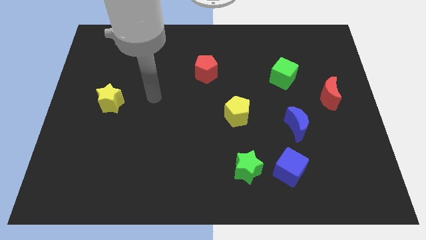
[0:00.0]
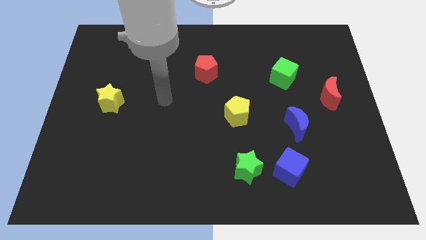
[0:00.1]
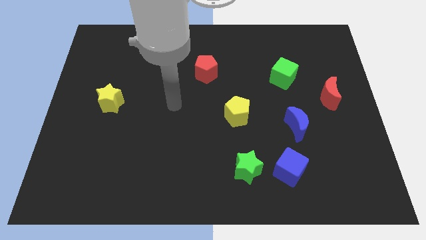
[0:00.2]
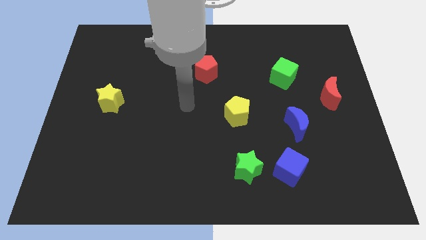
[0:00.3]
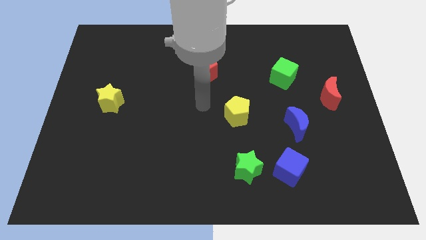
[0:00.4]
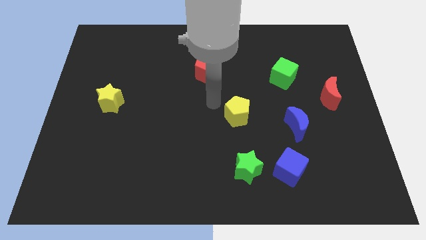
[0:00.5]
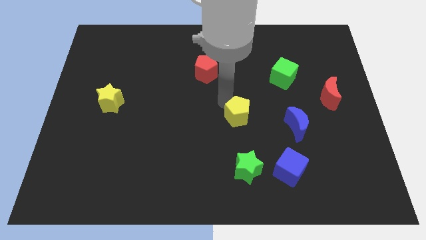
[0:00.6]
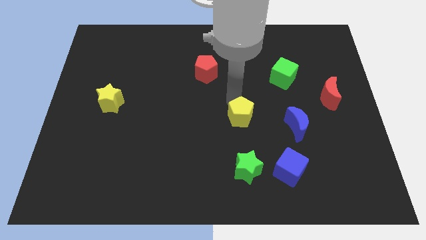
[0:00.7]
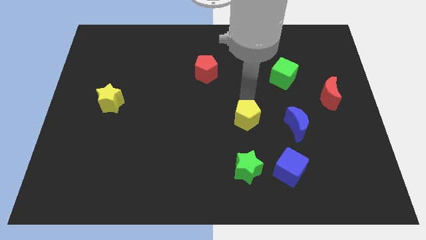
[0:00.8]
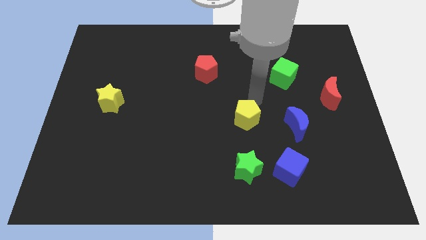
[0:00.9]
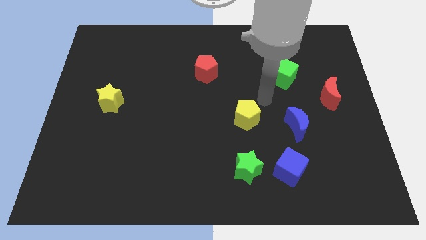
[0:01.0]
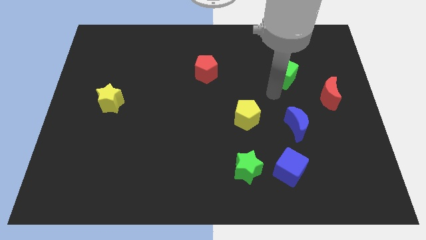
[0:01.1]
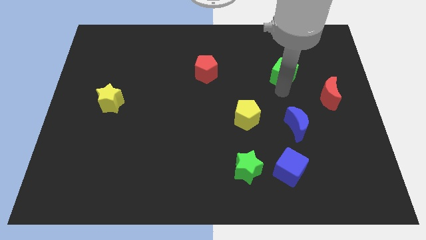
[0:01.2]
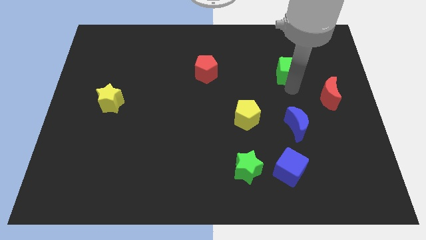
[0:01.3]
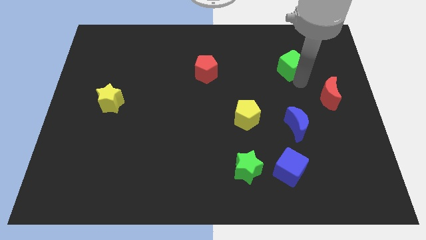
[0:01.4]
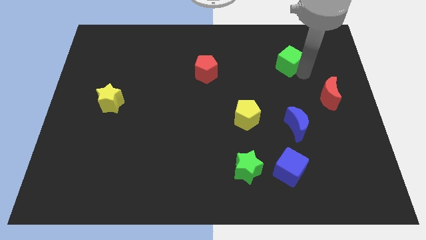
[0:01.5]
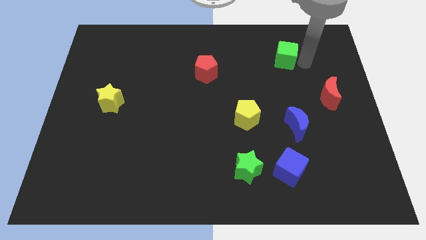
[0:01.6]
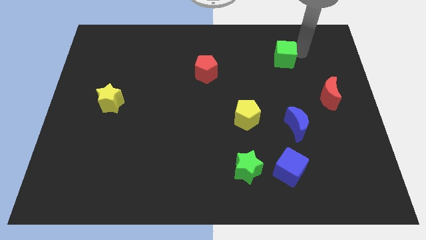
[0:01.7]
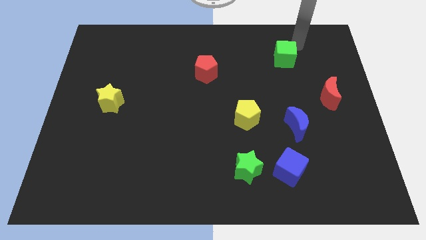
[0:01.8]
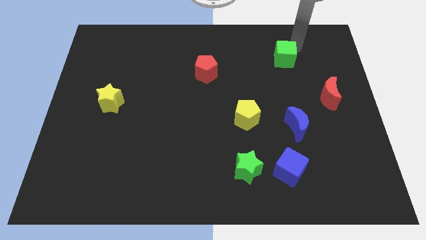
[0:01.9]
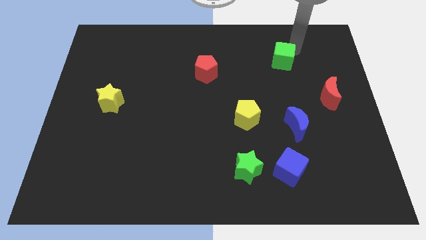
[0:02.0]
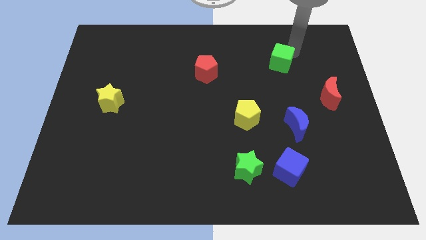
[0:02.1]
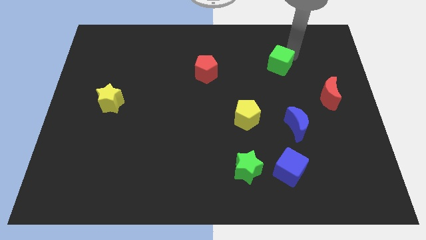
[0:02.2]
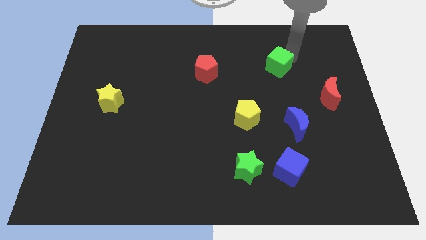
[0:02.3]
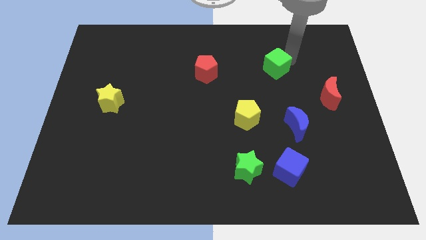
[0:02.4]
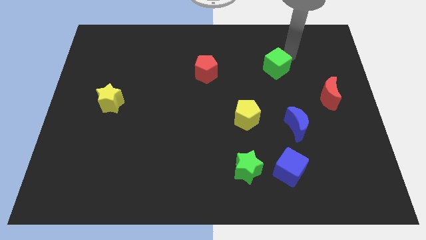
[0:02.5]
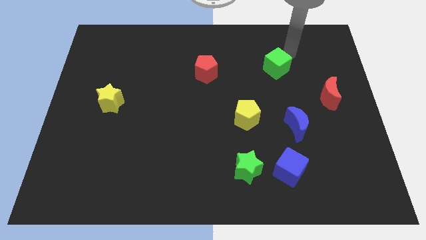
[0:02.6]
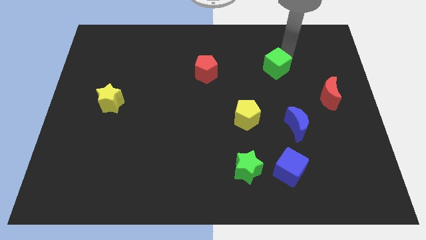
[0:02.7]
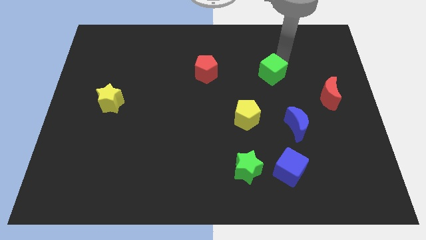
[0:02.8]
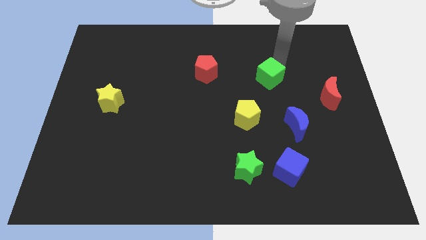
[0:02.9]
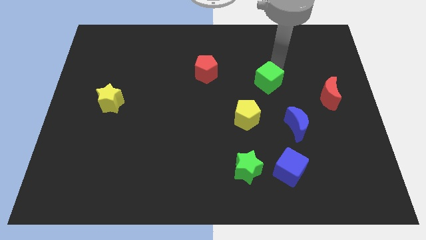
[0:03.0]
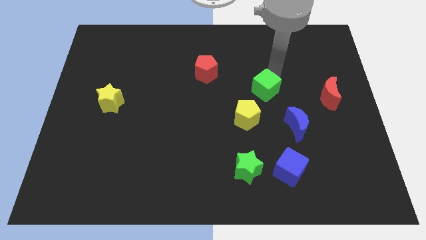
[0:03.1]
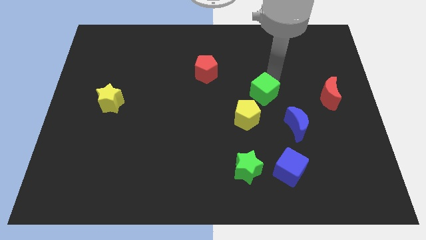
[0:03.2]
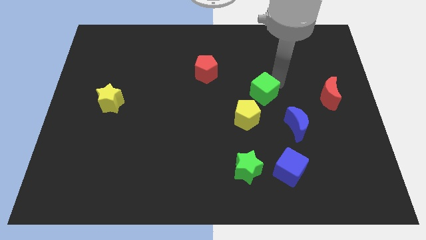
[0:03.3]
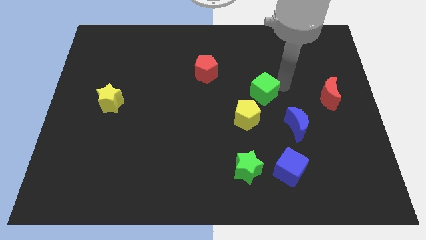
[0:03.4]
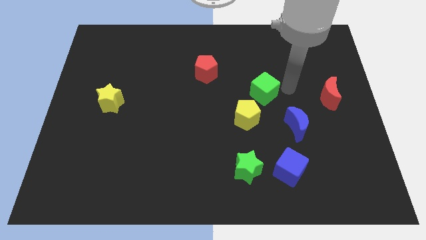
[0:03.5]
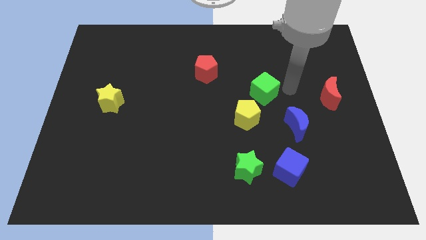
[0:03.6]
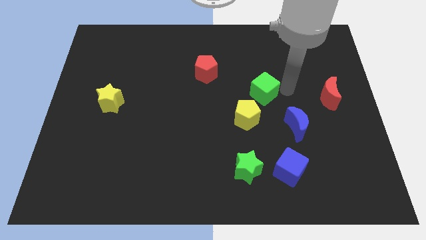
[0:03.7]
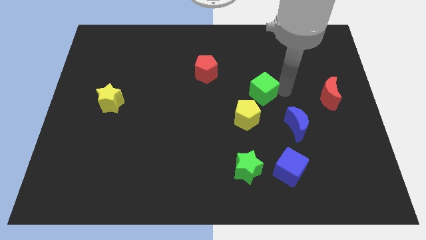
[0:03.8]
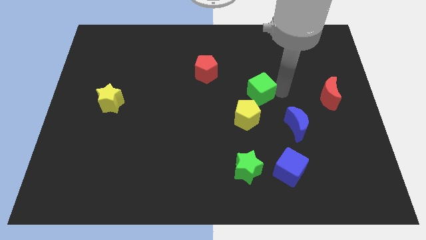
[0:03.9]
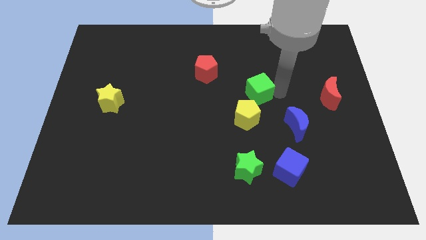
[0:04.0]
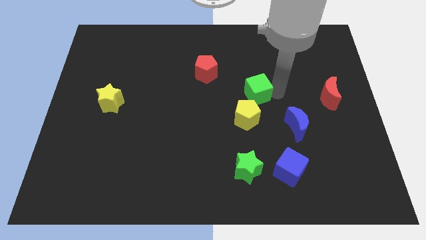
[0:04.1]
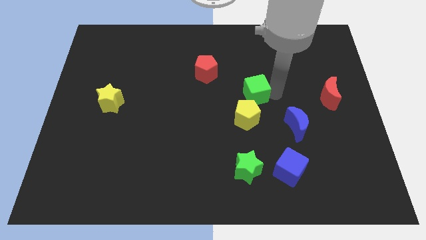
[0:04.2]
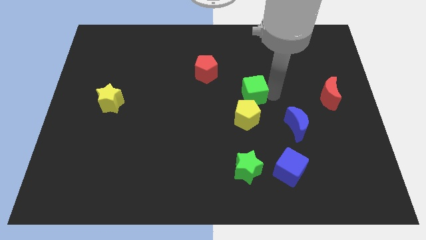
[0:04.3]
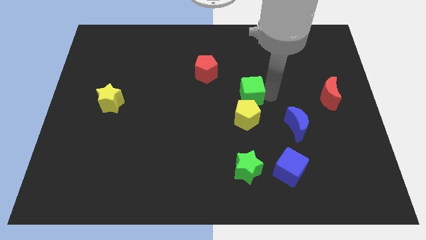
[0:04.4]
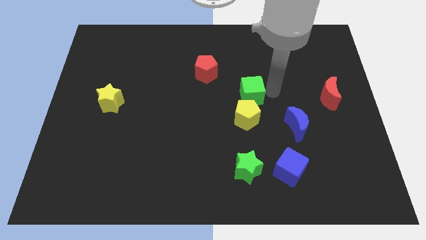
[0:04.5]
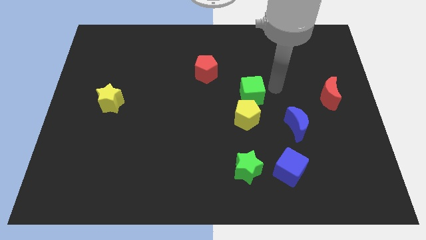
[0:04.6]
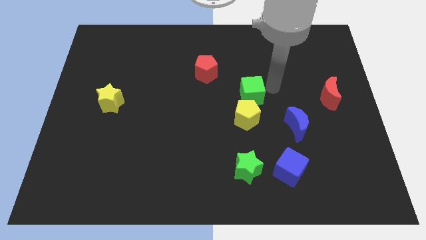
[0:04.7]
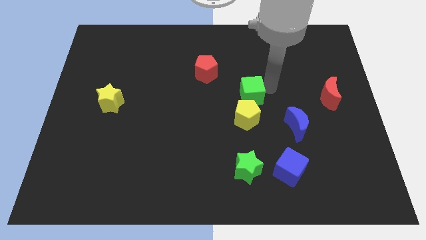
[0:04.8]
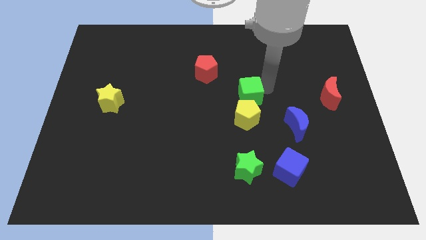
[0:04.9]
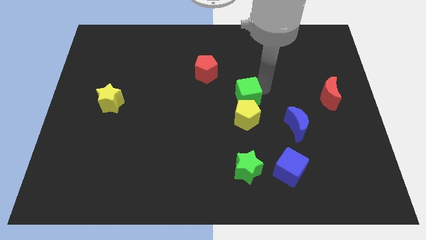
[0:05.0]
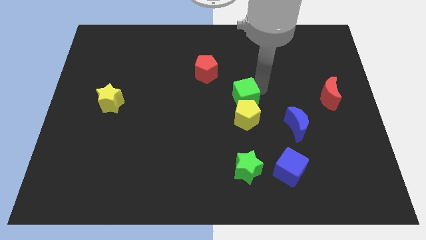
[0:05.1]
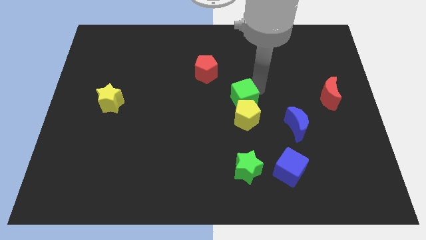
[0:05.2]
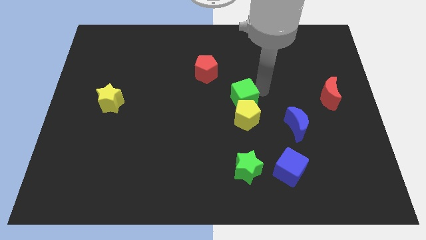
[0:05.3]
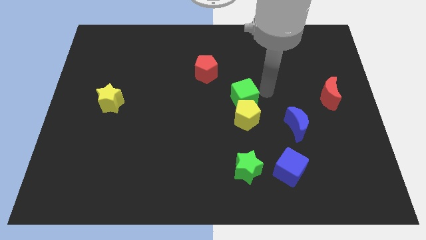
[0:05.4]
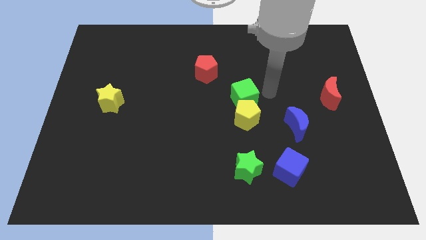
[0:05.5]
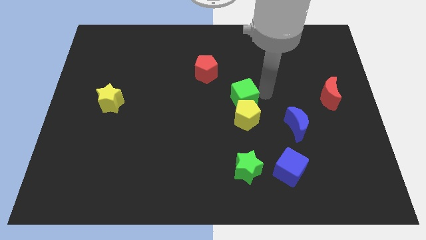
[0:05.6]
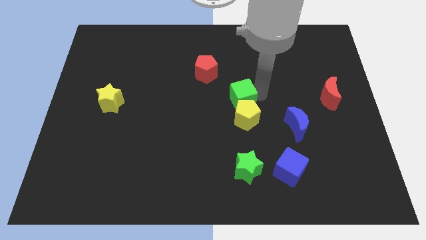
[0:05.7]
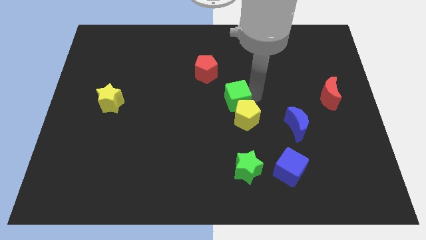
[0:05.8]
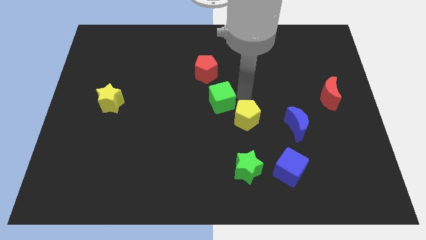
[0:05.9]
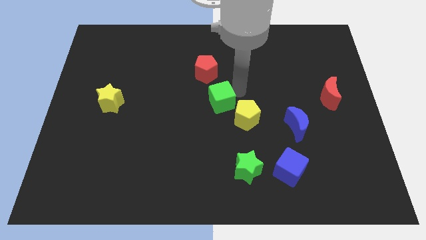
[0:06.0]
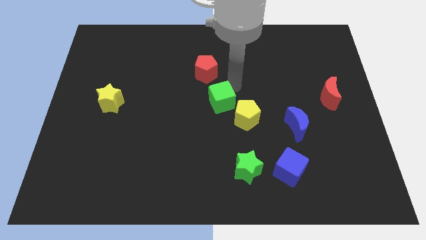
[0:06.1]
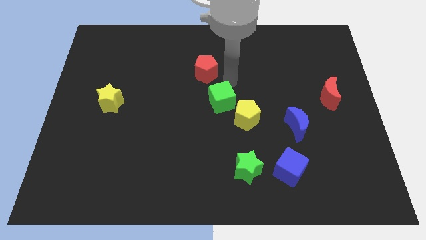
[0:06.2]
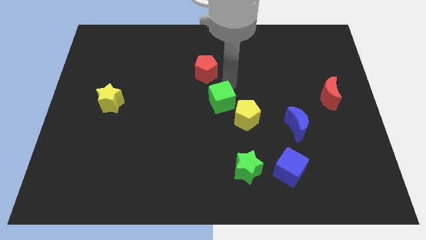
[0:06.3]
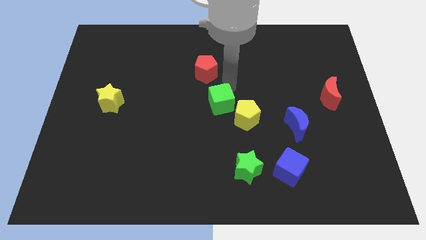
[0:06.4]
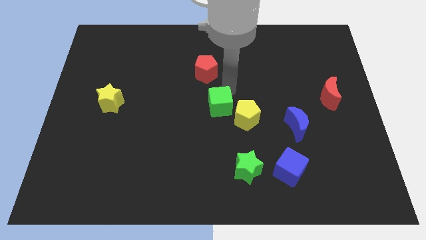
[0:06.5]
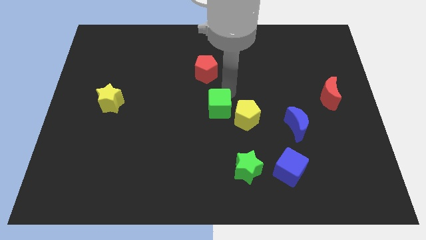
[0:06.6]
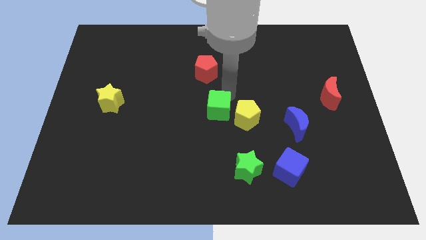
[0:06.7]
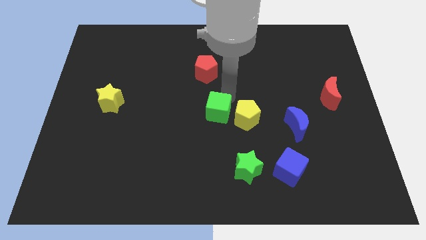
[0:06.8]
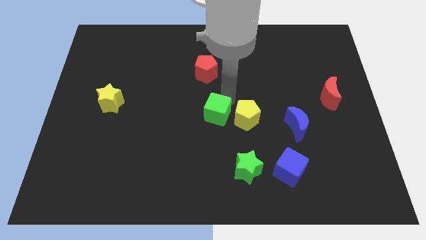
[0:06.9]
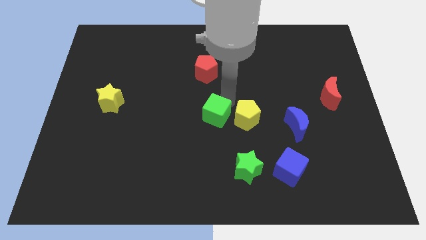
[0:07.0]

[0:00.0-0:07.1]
push the green cube diagonally downwards and left

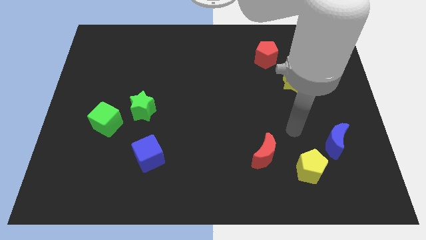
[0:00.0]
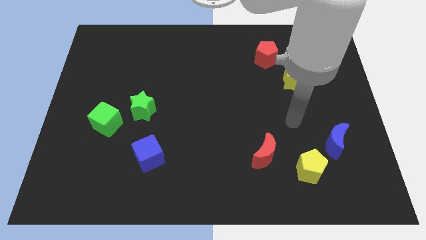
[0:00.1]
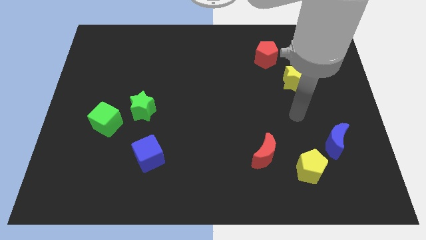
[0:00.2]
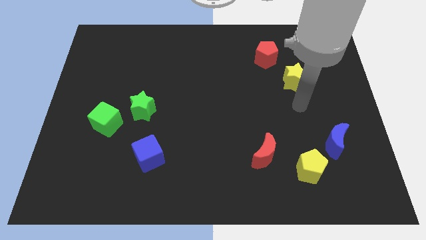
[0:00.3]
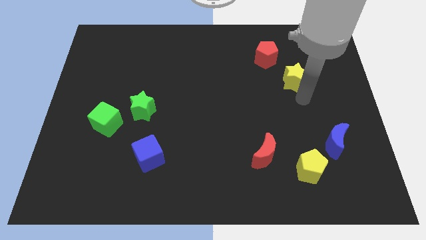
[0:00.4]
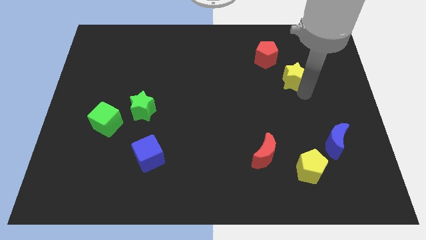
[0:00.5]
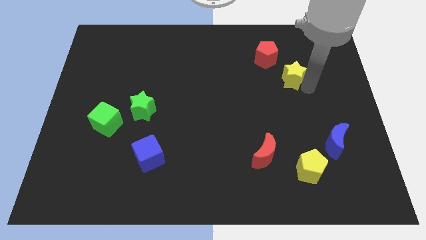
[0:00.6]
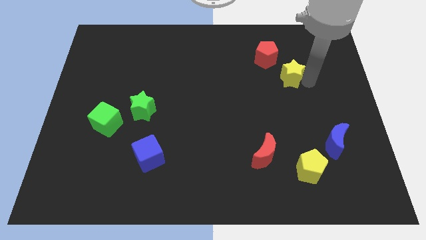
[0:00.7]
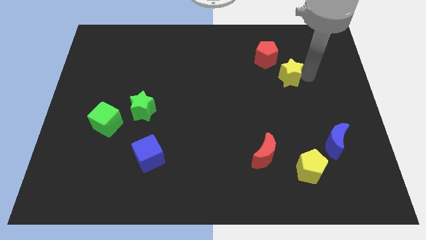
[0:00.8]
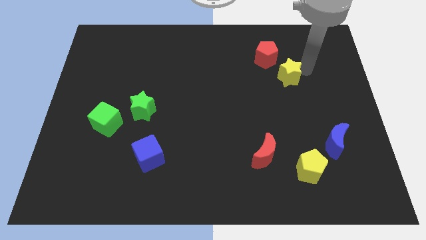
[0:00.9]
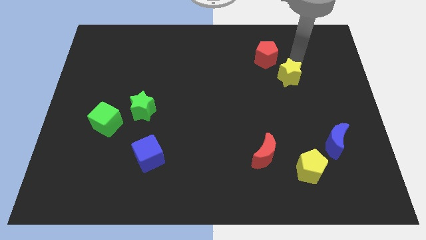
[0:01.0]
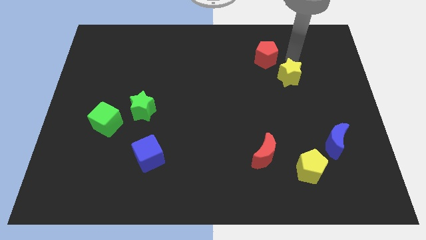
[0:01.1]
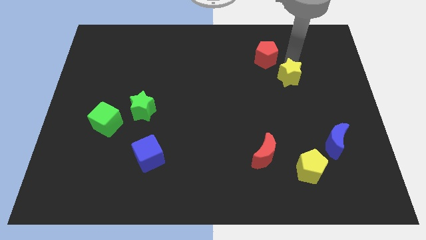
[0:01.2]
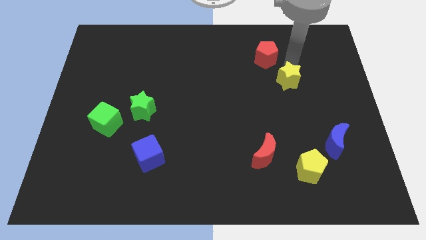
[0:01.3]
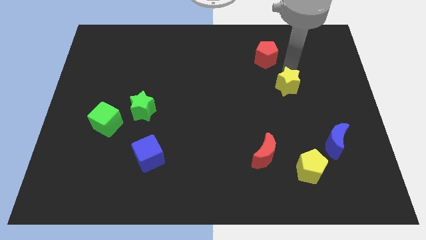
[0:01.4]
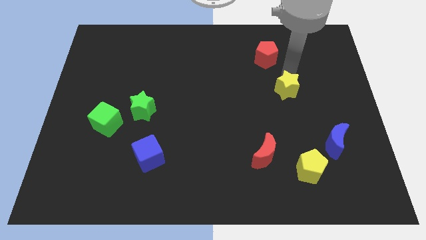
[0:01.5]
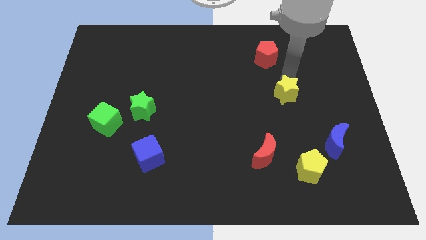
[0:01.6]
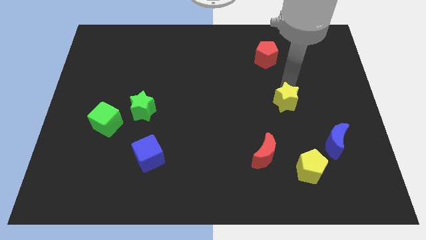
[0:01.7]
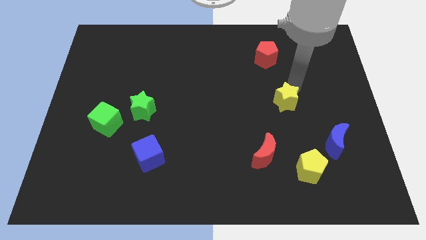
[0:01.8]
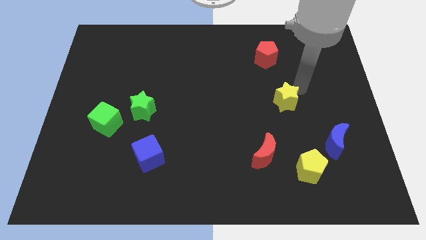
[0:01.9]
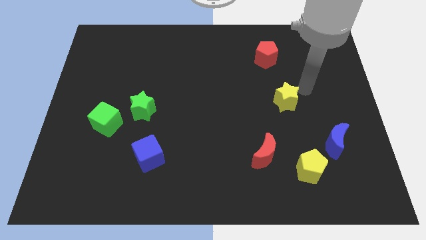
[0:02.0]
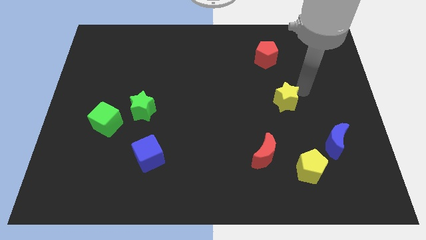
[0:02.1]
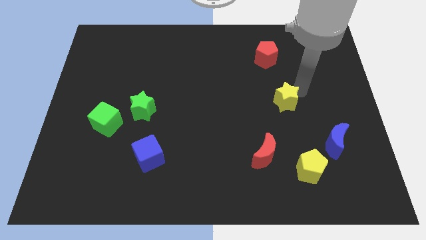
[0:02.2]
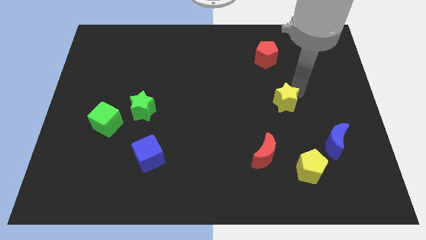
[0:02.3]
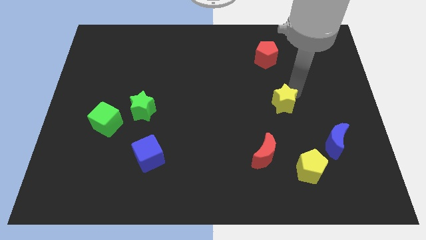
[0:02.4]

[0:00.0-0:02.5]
push the yellow star down and to the left diagonally a little
